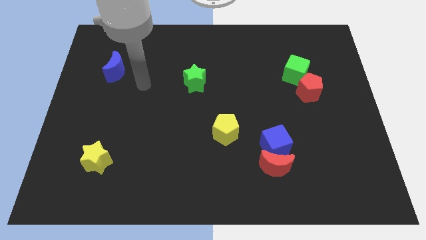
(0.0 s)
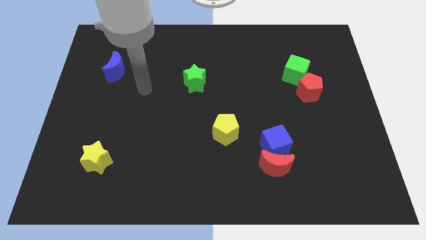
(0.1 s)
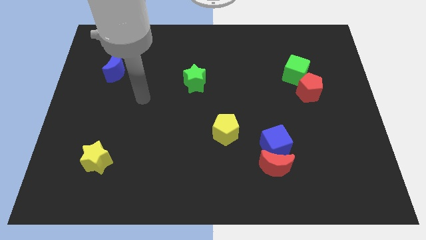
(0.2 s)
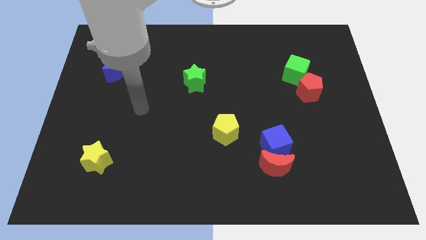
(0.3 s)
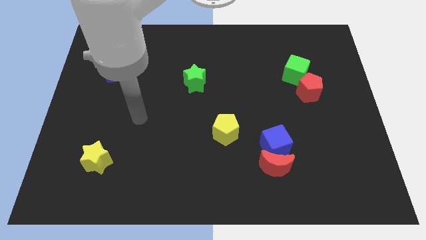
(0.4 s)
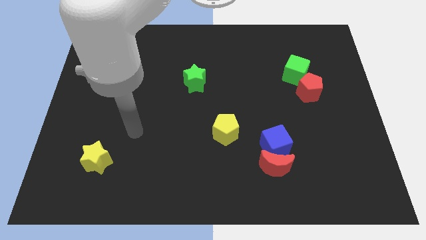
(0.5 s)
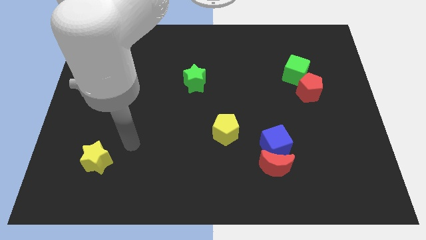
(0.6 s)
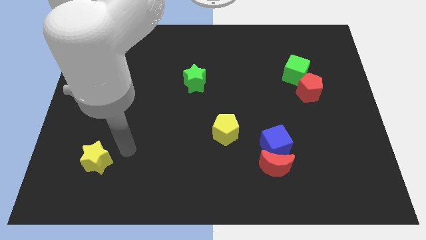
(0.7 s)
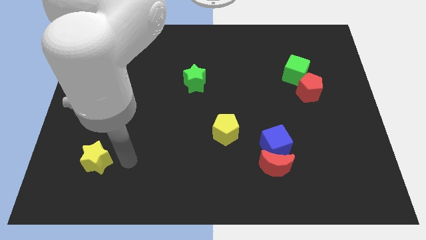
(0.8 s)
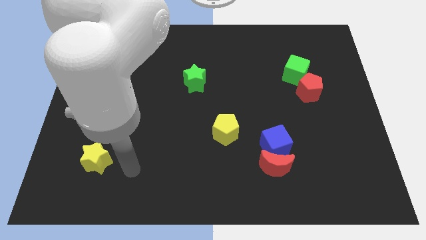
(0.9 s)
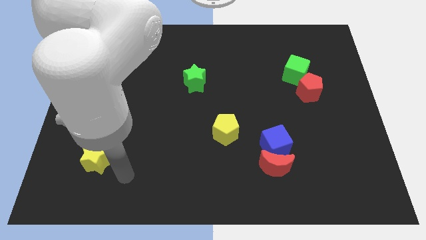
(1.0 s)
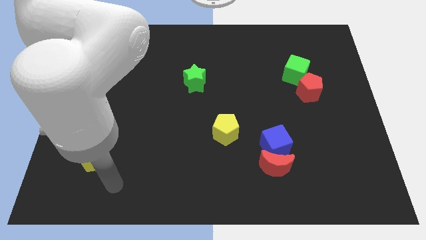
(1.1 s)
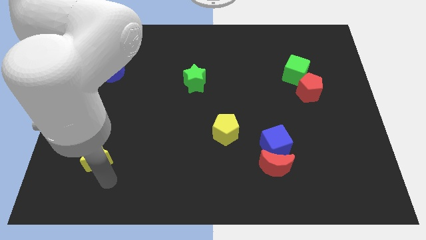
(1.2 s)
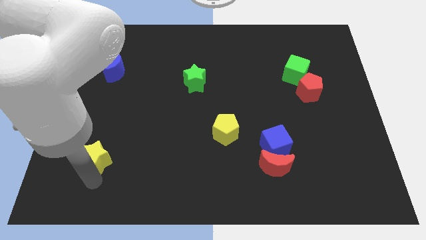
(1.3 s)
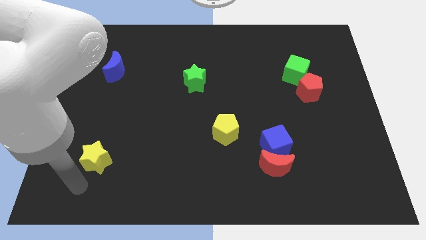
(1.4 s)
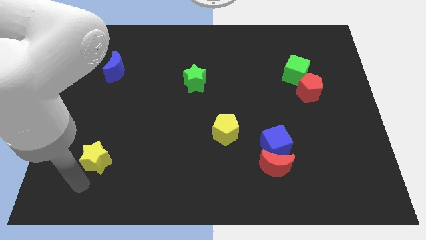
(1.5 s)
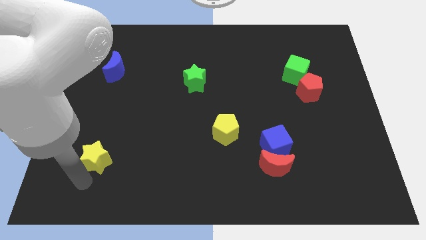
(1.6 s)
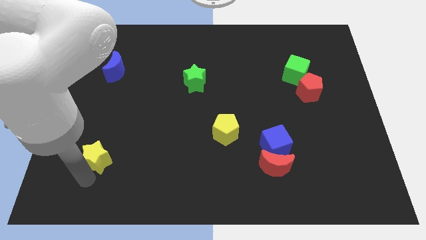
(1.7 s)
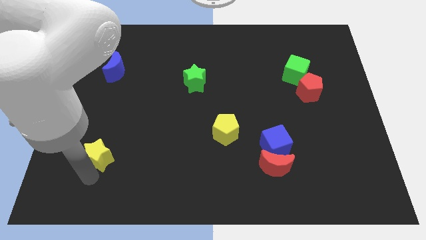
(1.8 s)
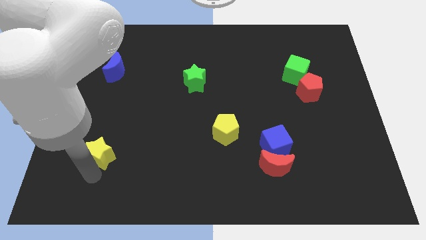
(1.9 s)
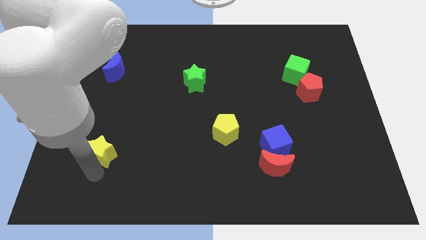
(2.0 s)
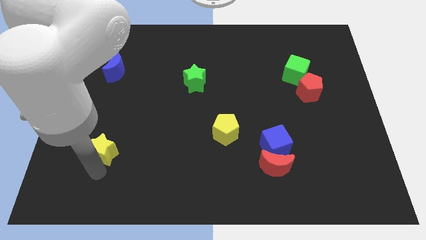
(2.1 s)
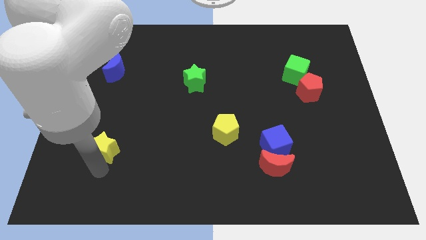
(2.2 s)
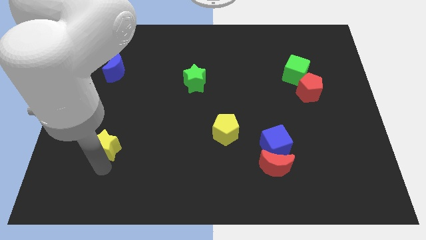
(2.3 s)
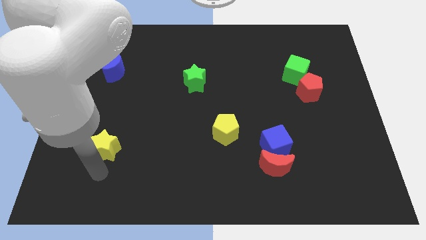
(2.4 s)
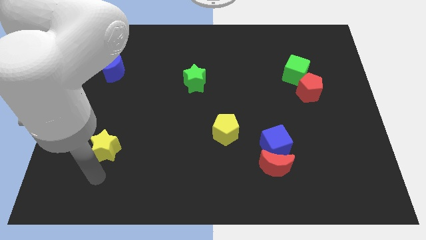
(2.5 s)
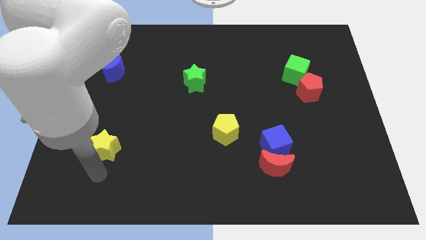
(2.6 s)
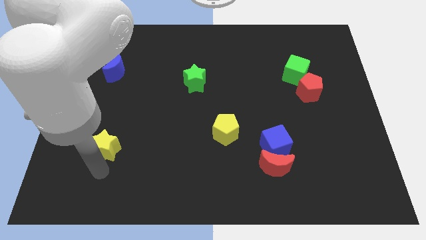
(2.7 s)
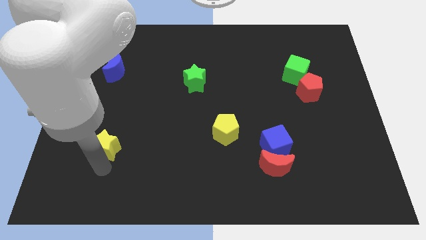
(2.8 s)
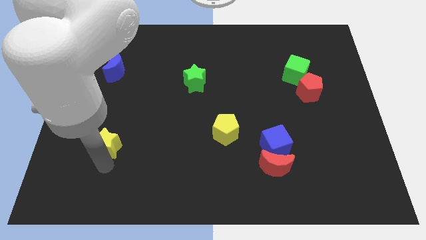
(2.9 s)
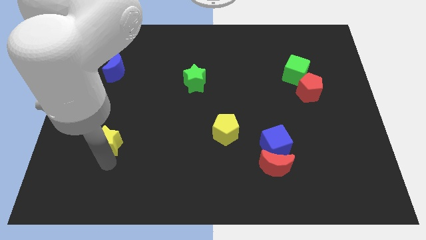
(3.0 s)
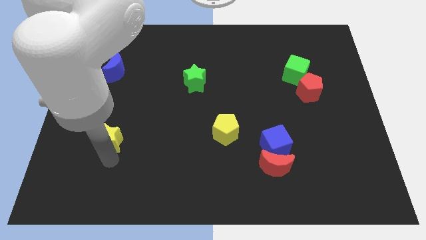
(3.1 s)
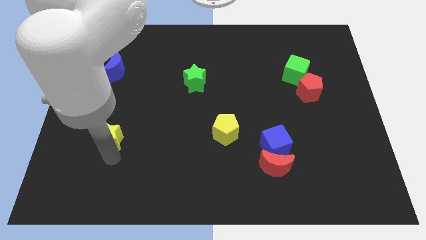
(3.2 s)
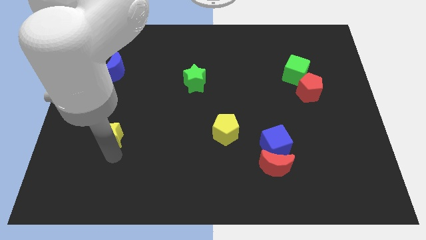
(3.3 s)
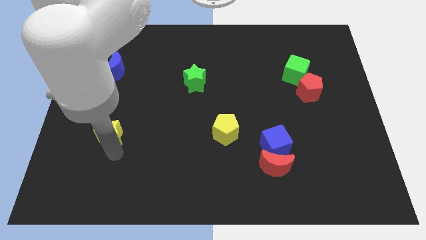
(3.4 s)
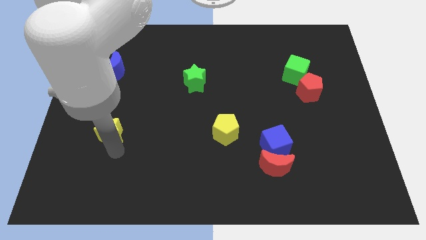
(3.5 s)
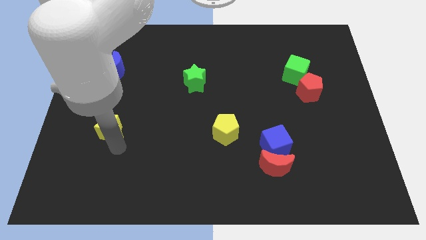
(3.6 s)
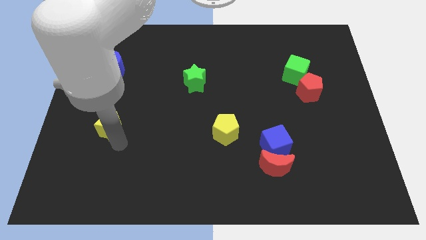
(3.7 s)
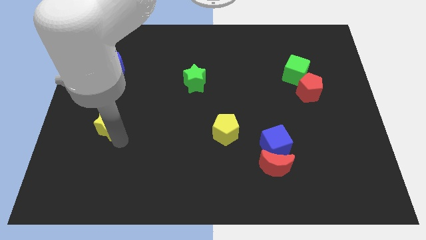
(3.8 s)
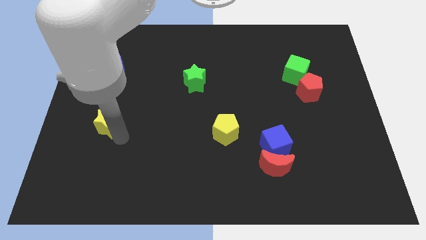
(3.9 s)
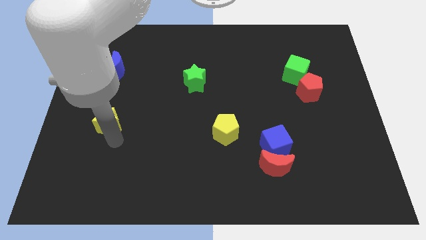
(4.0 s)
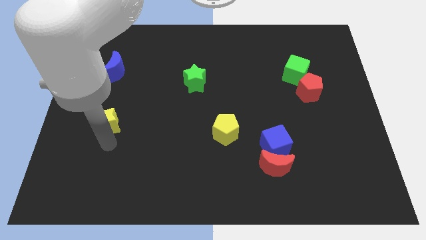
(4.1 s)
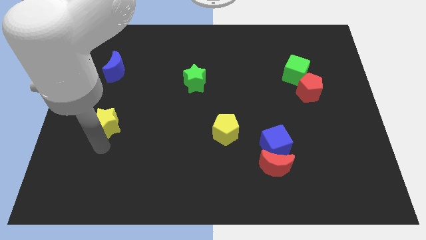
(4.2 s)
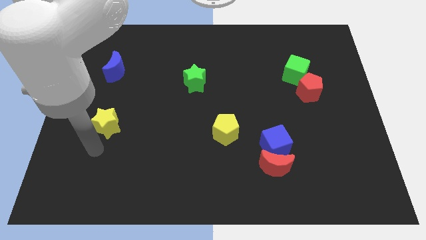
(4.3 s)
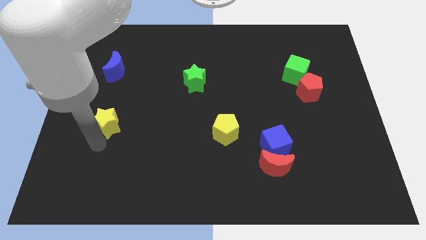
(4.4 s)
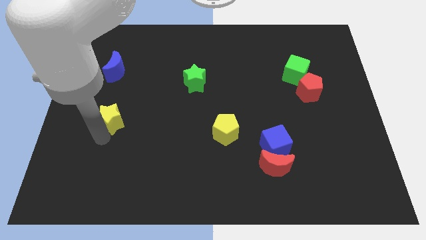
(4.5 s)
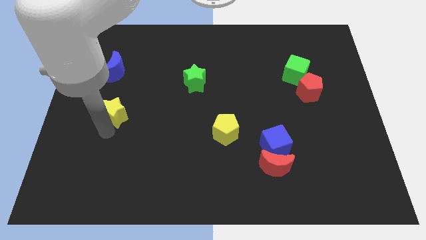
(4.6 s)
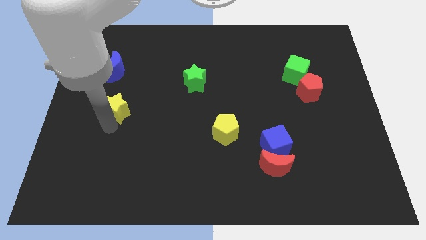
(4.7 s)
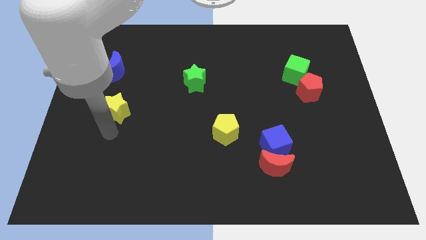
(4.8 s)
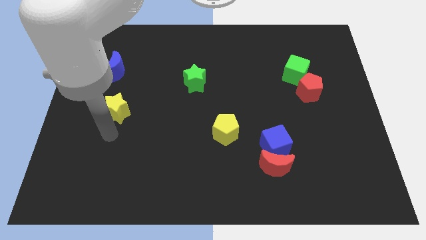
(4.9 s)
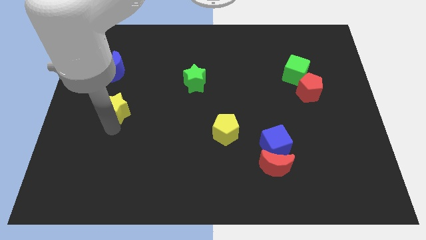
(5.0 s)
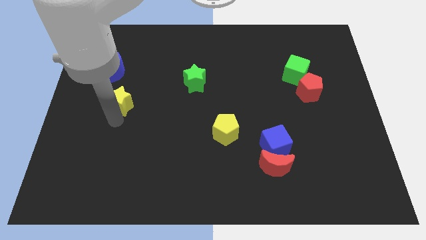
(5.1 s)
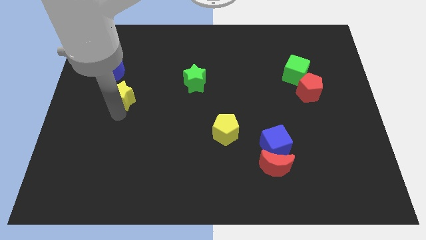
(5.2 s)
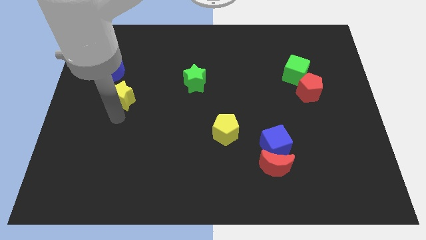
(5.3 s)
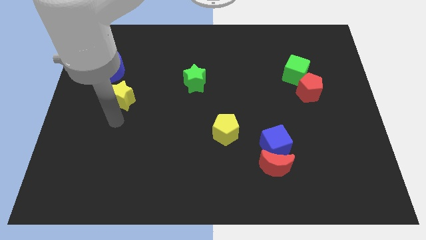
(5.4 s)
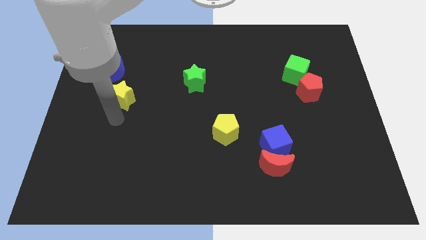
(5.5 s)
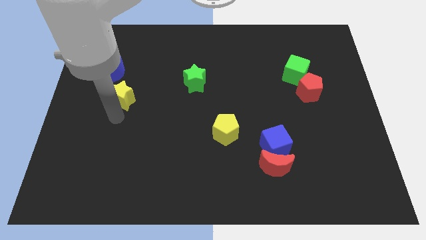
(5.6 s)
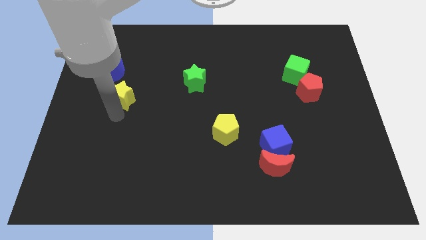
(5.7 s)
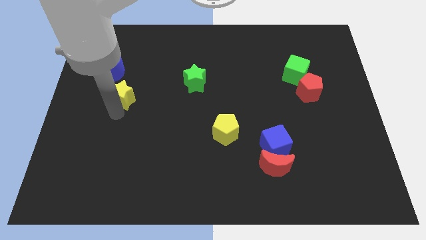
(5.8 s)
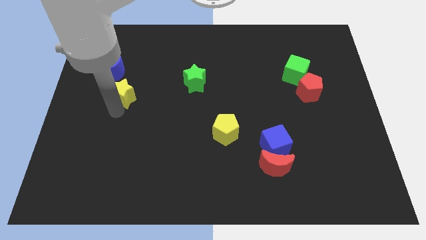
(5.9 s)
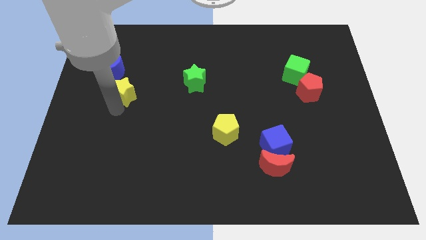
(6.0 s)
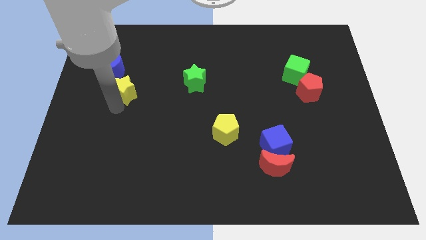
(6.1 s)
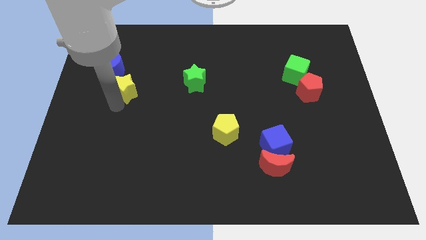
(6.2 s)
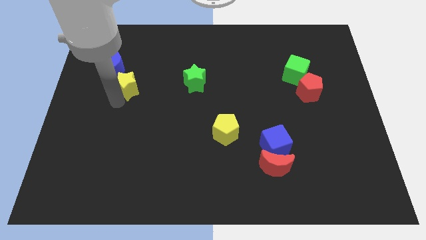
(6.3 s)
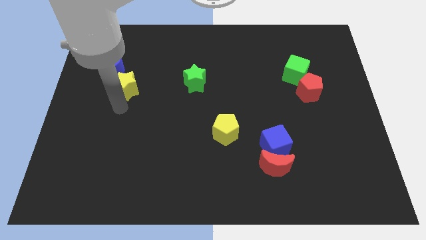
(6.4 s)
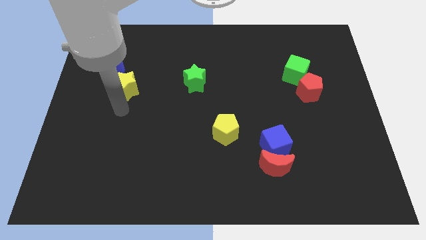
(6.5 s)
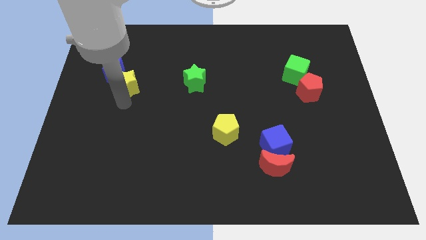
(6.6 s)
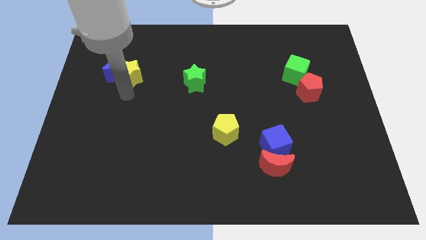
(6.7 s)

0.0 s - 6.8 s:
move the yellow star diagonally up and to the right of the blue moon

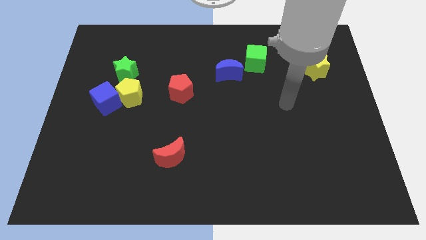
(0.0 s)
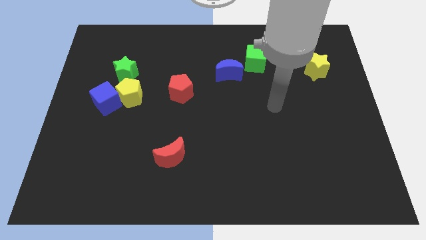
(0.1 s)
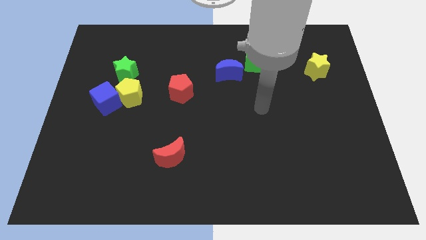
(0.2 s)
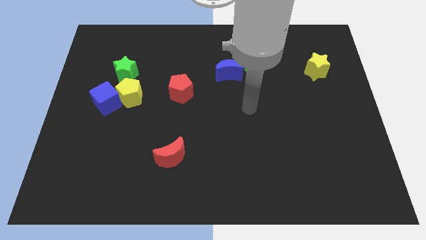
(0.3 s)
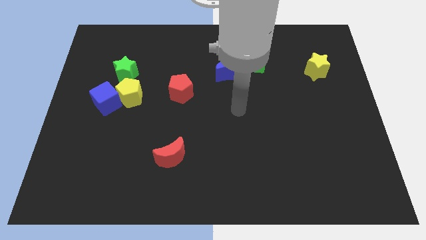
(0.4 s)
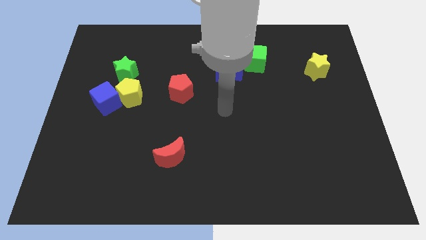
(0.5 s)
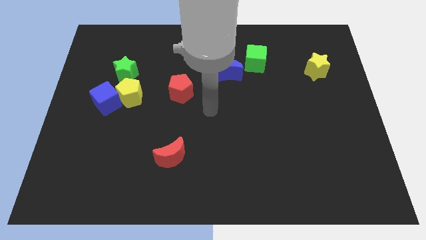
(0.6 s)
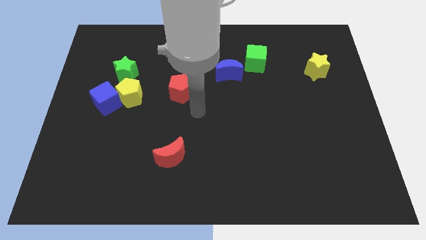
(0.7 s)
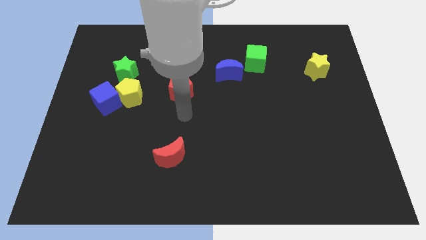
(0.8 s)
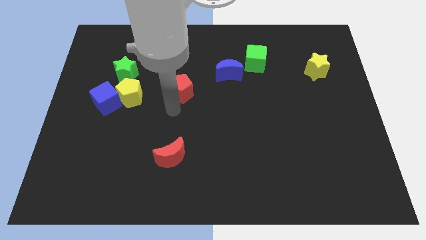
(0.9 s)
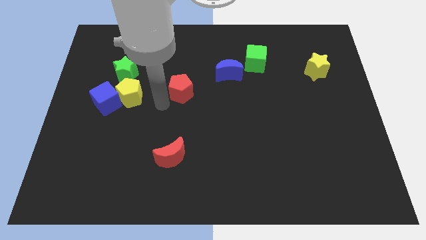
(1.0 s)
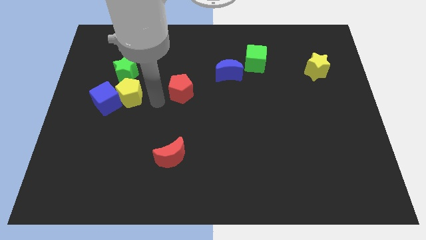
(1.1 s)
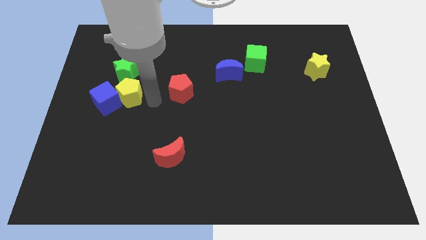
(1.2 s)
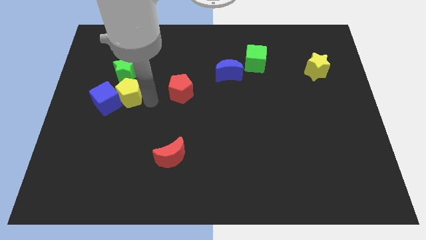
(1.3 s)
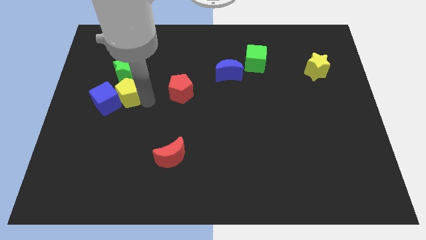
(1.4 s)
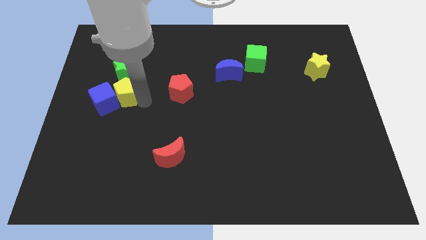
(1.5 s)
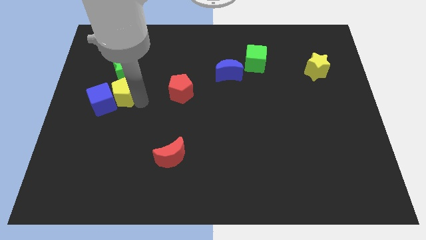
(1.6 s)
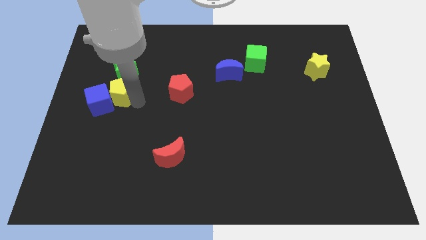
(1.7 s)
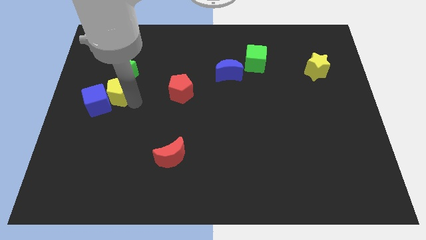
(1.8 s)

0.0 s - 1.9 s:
put the yellow pentagon to the bottom left side of the green star
